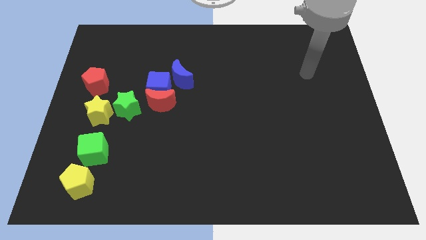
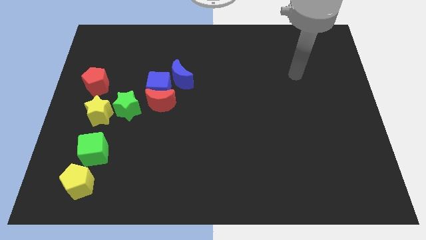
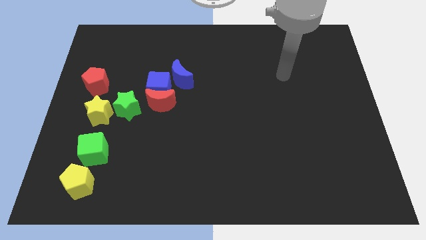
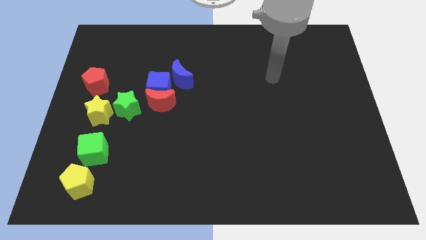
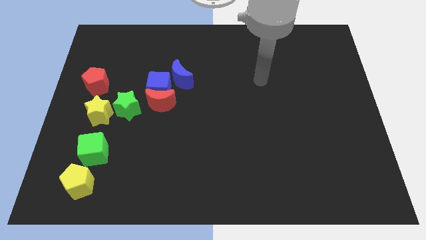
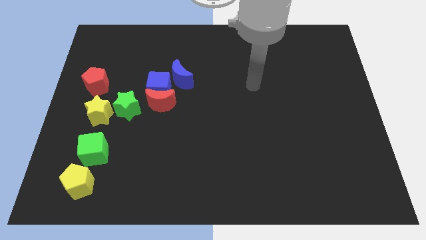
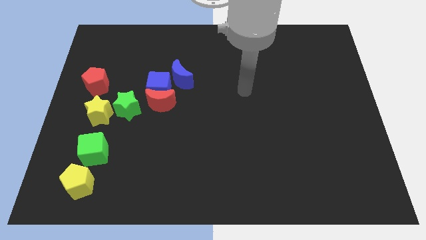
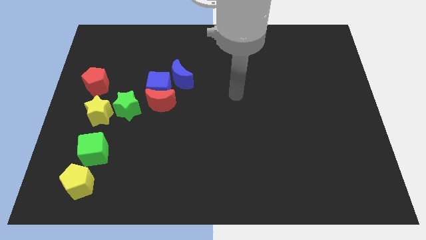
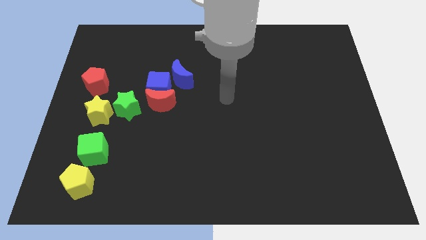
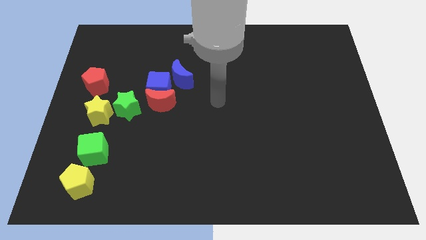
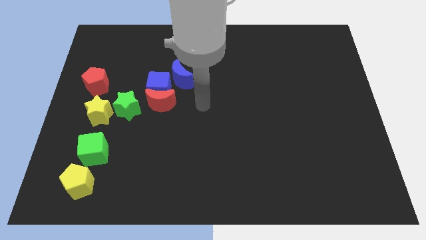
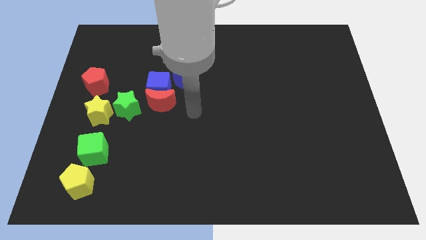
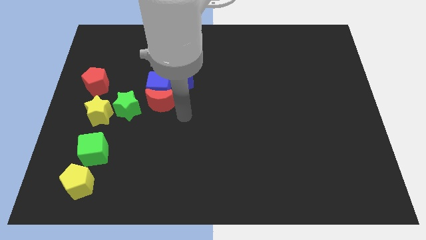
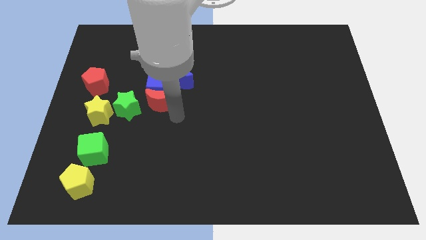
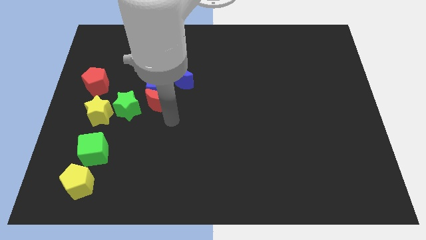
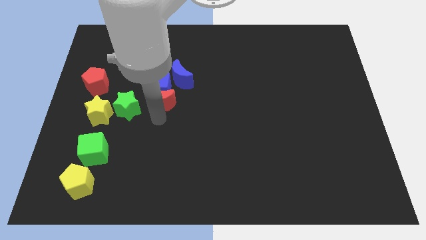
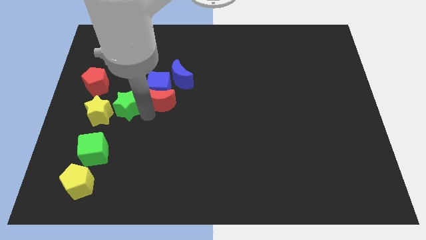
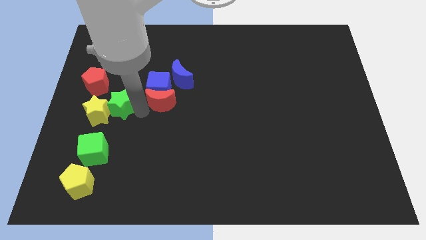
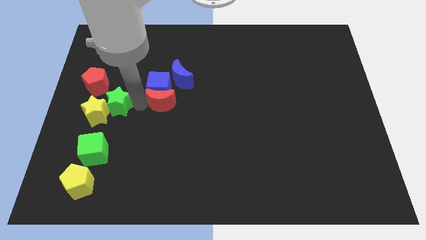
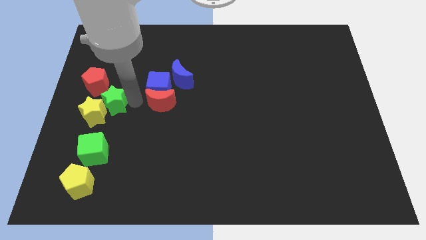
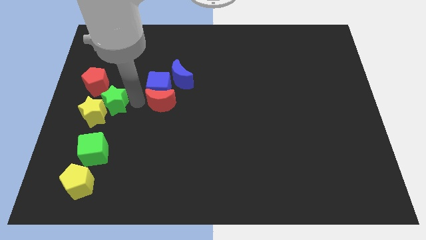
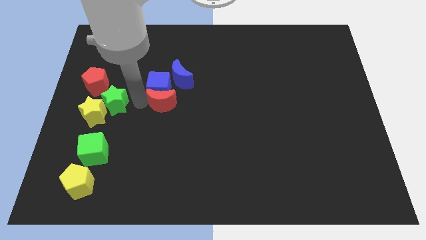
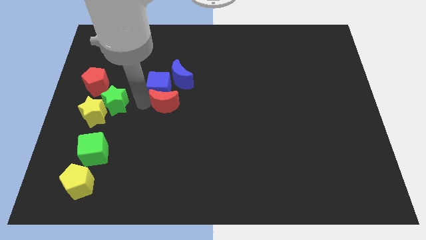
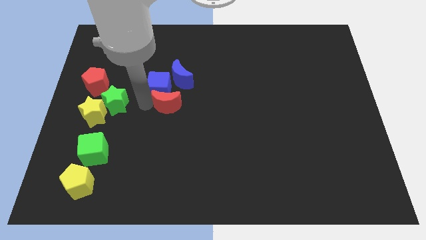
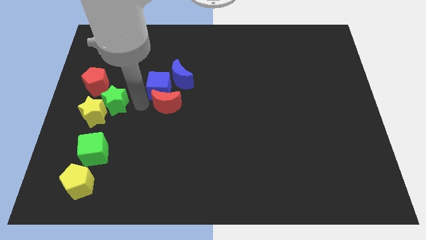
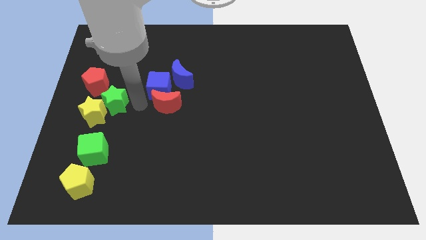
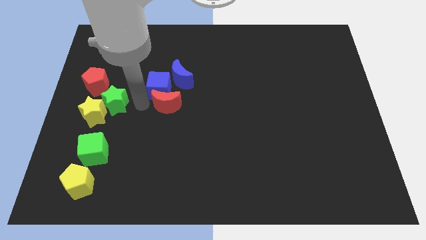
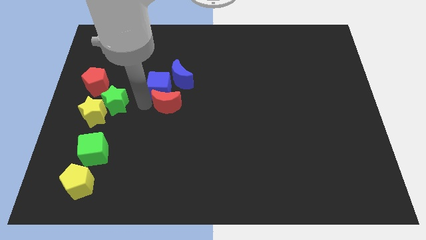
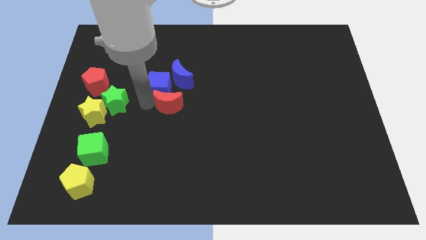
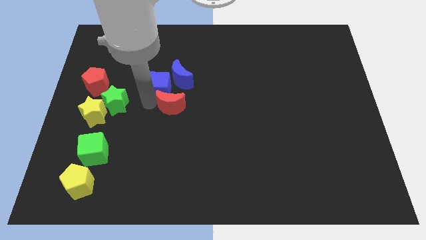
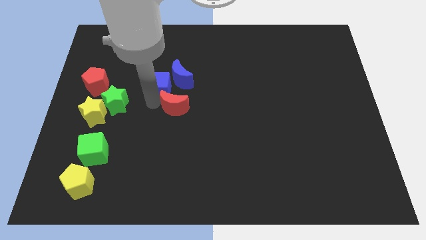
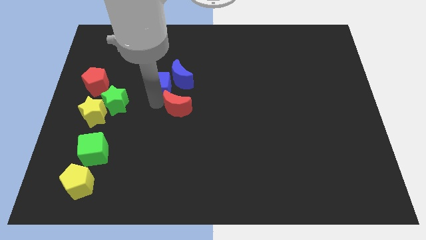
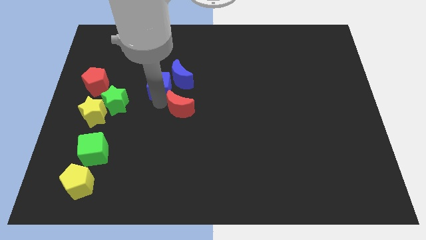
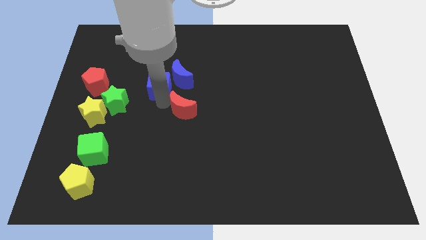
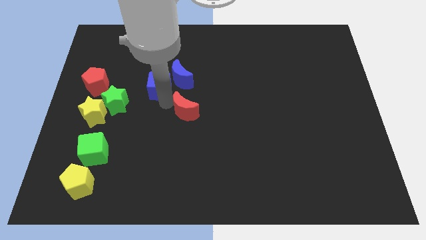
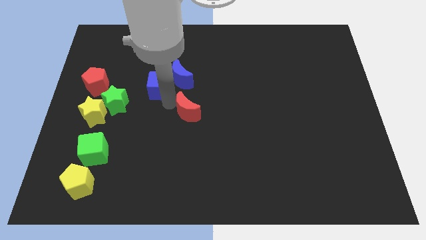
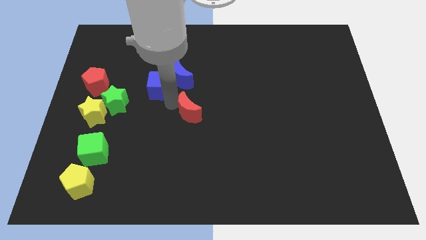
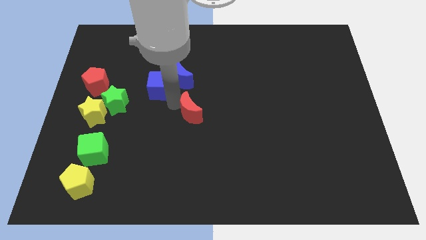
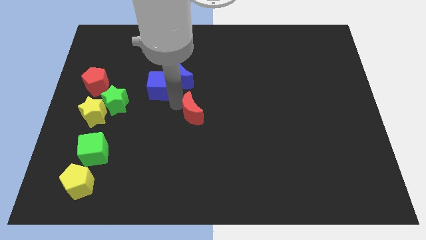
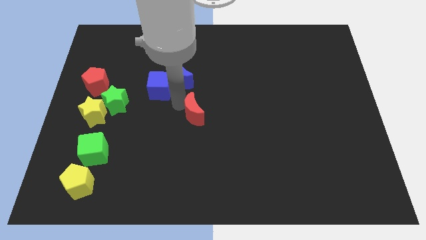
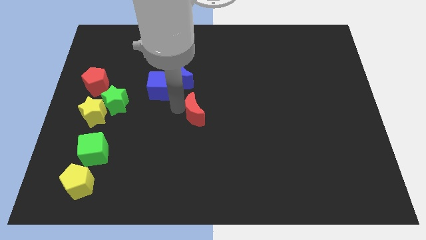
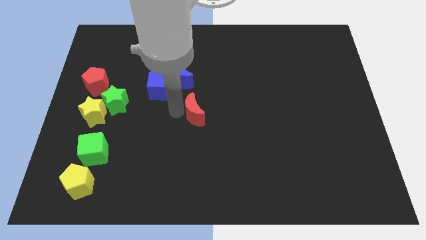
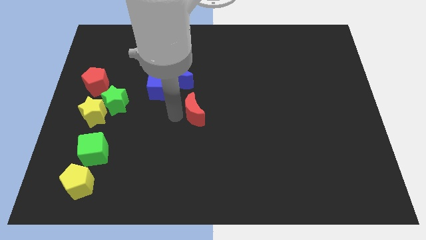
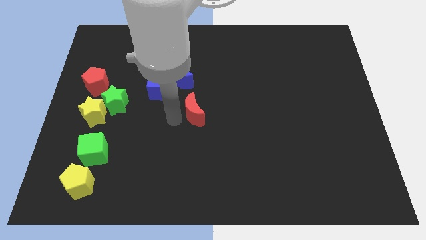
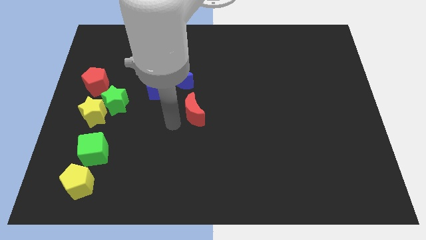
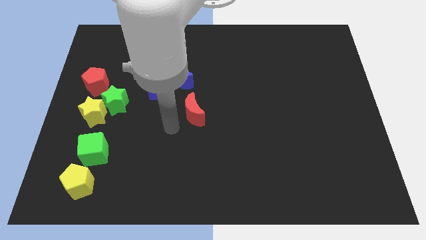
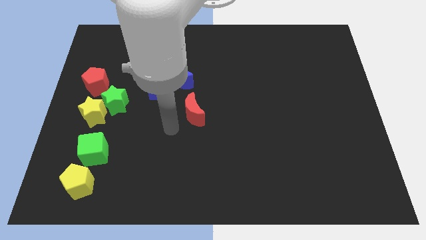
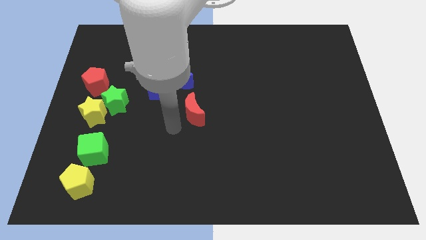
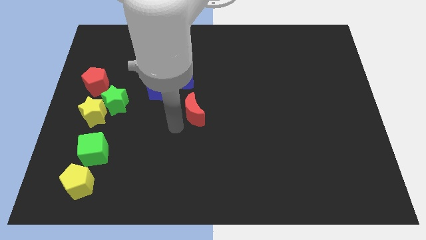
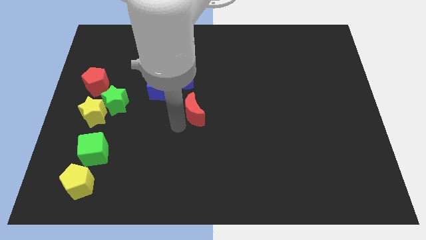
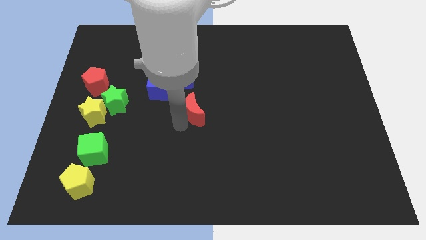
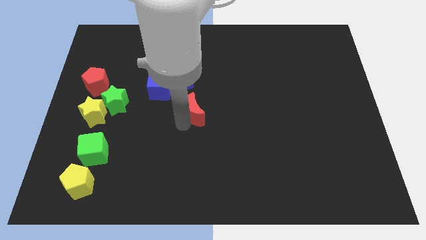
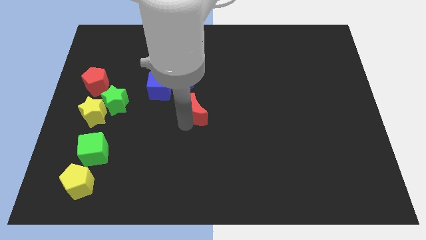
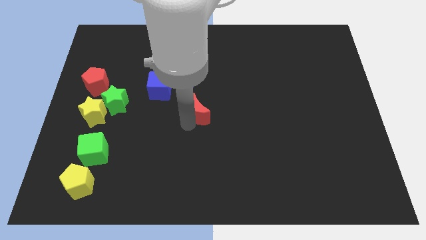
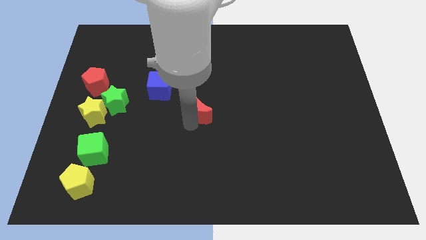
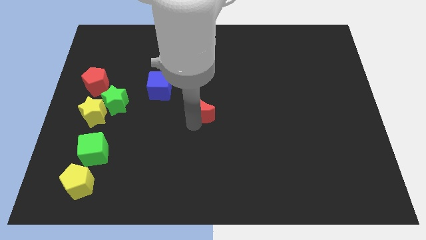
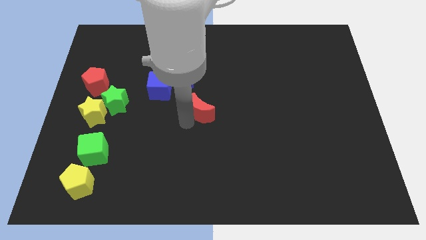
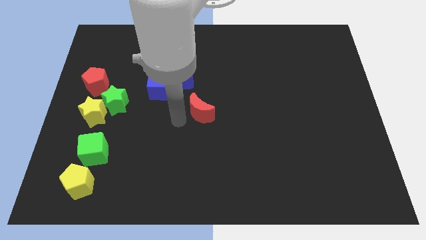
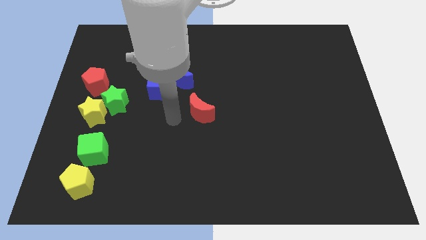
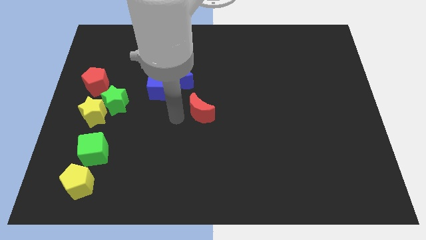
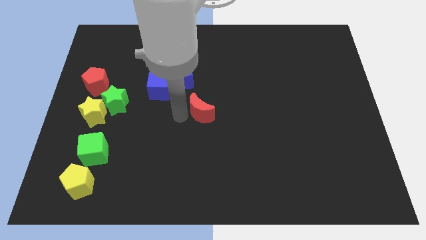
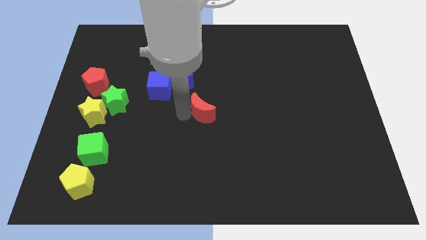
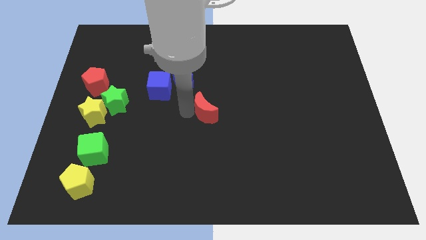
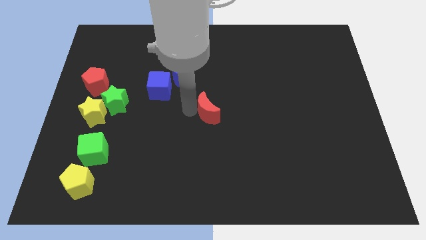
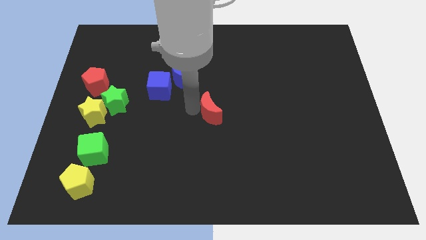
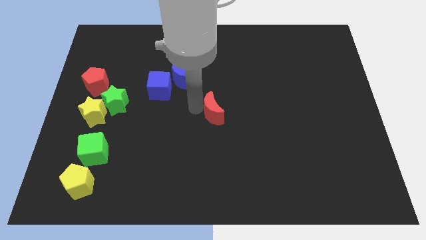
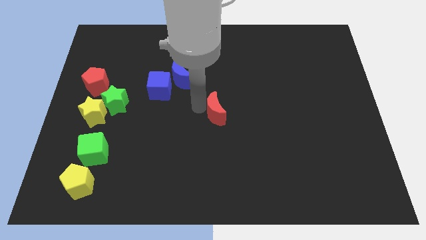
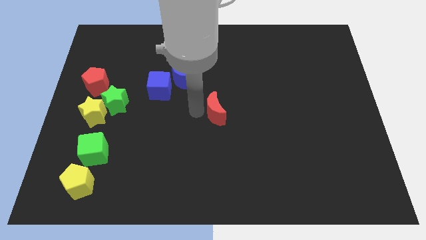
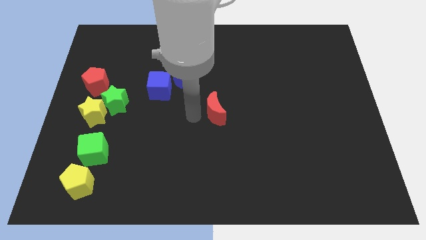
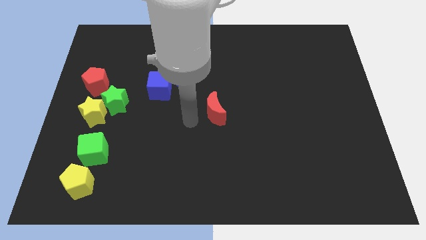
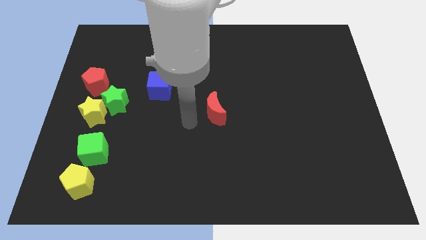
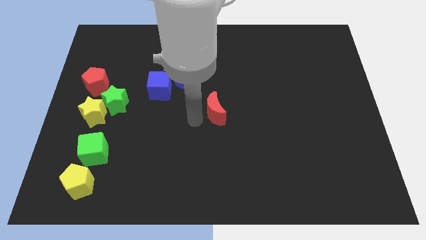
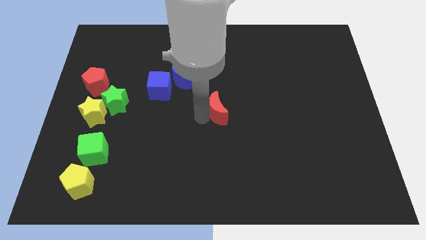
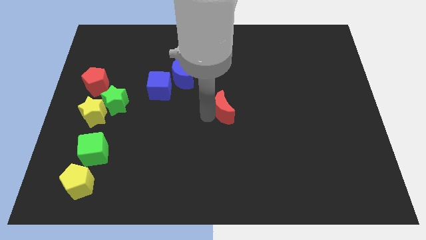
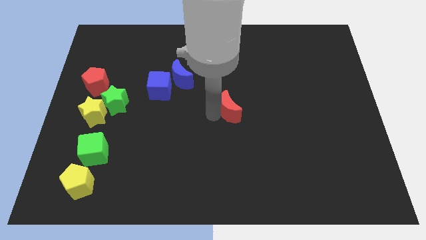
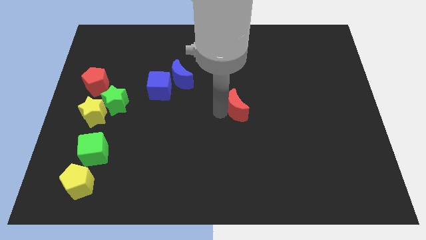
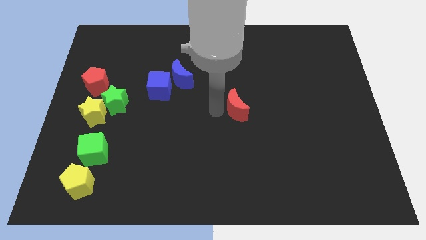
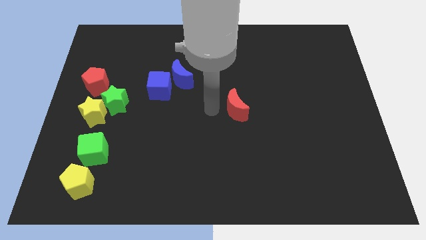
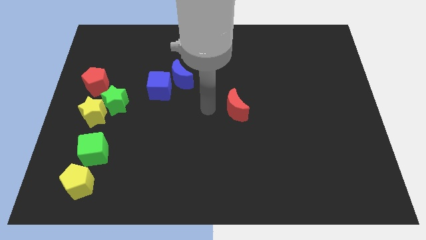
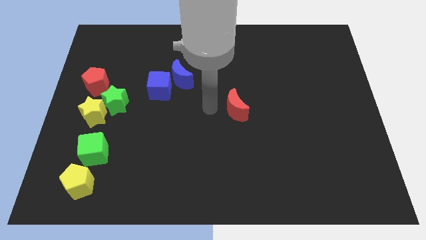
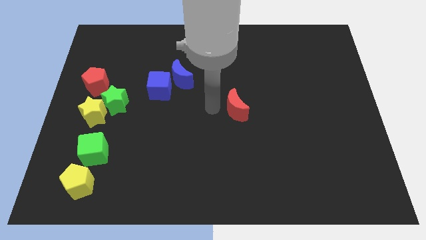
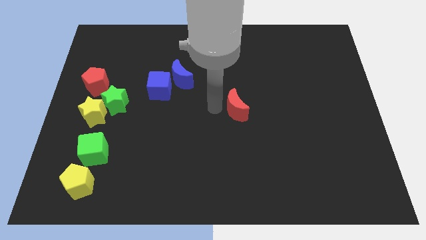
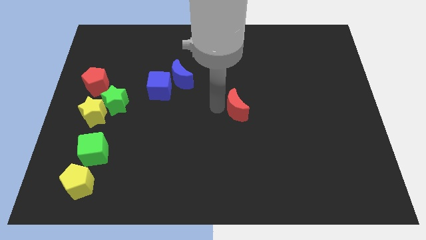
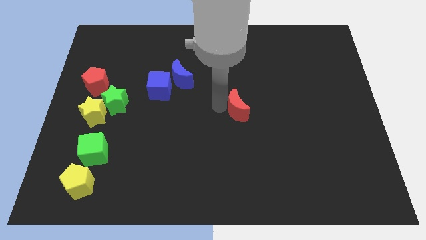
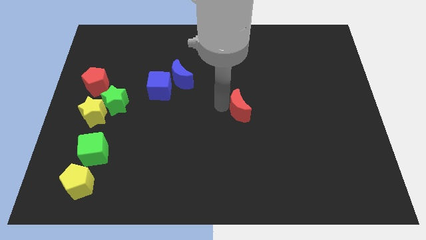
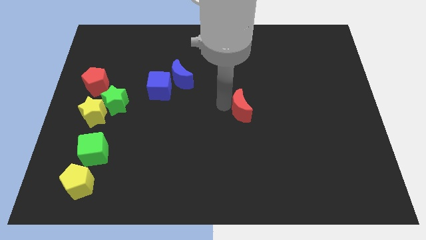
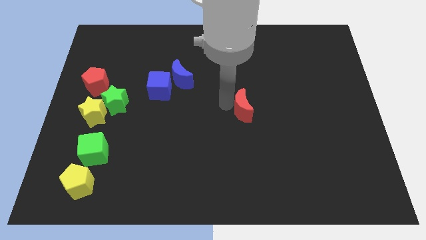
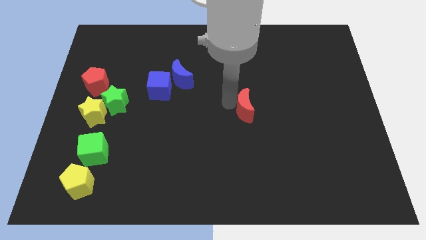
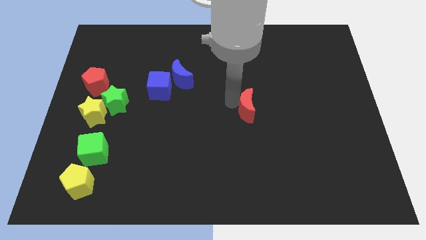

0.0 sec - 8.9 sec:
push the red moon right
